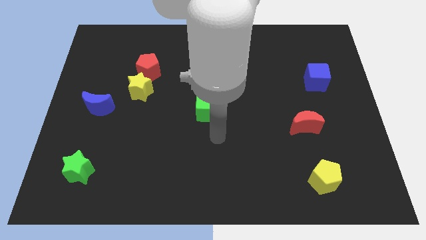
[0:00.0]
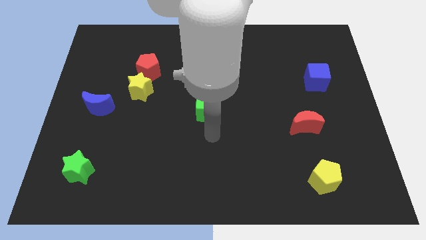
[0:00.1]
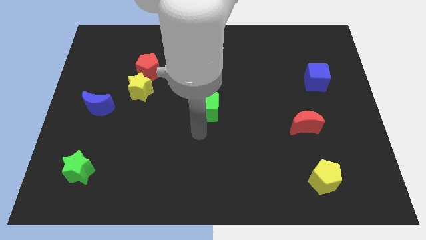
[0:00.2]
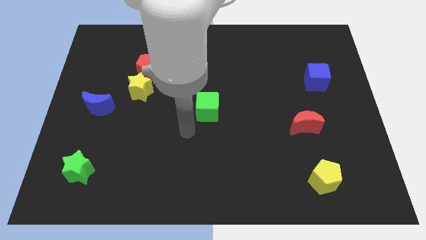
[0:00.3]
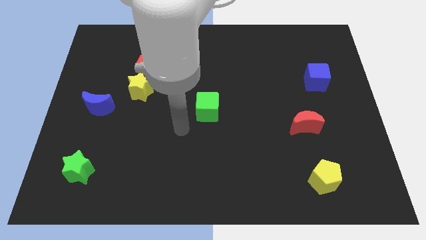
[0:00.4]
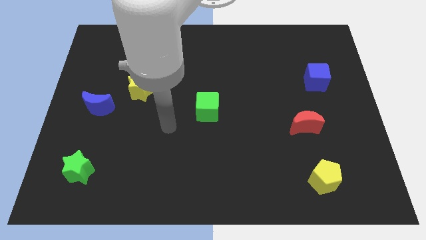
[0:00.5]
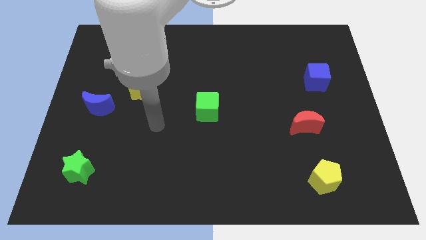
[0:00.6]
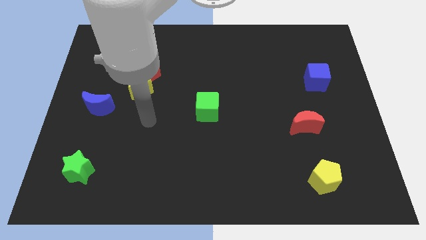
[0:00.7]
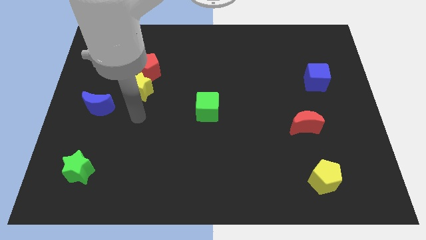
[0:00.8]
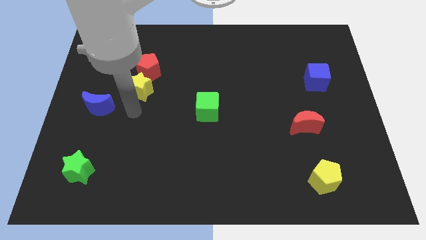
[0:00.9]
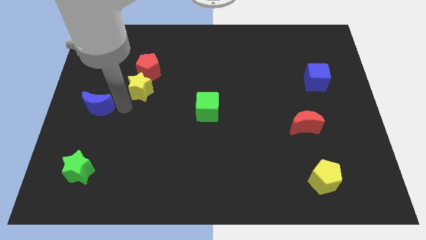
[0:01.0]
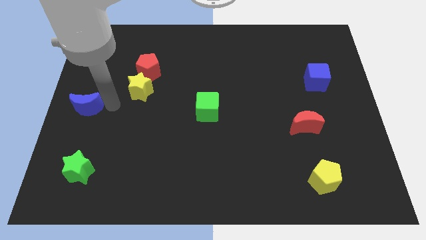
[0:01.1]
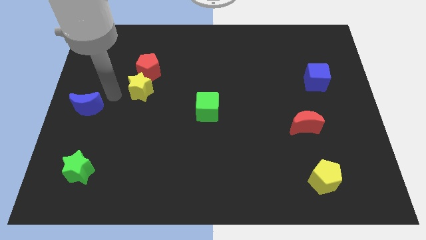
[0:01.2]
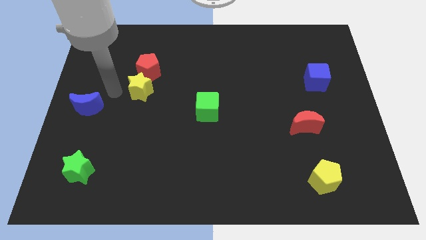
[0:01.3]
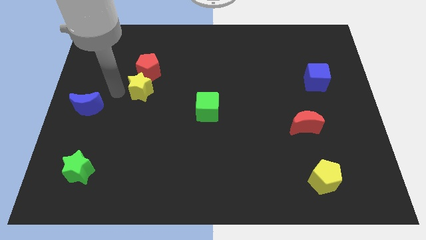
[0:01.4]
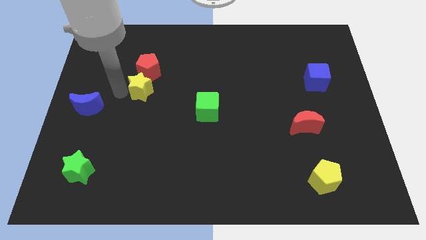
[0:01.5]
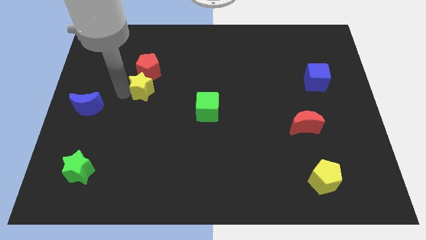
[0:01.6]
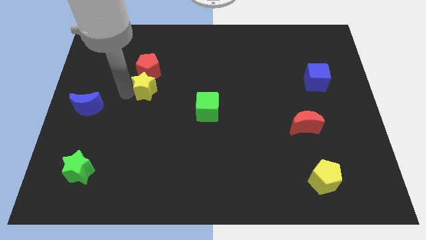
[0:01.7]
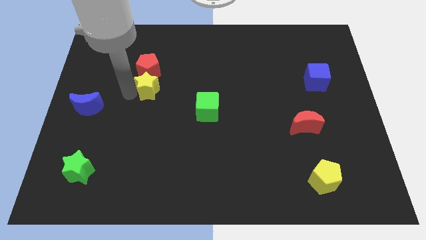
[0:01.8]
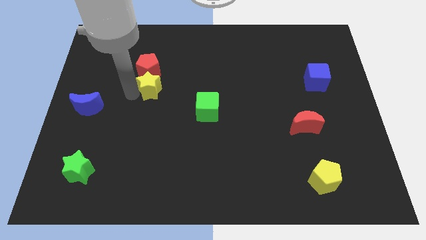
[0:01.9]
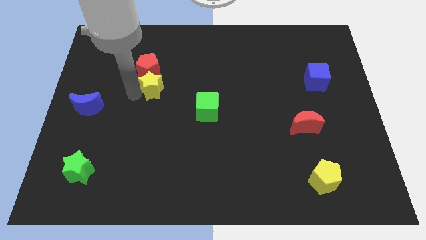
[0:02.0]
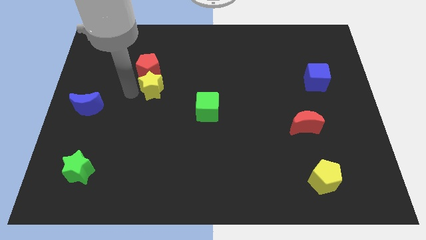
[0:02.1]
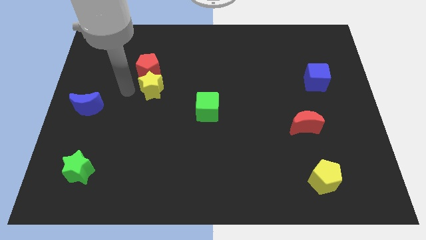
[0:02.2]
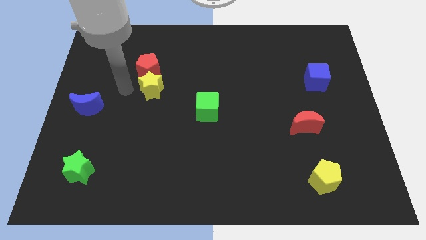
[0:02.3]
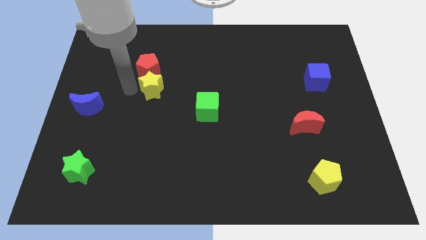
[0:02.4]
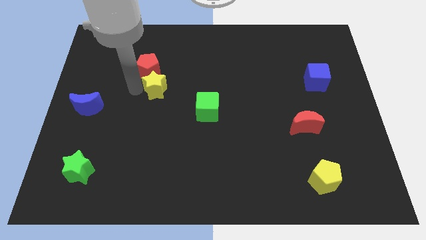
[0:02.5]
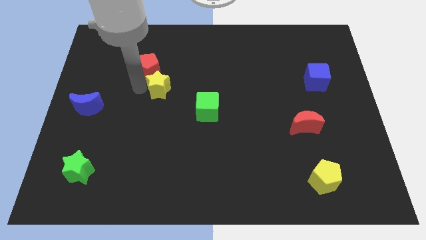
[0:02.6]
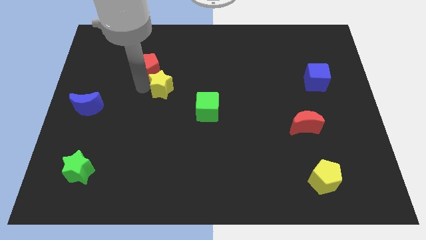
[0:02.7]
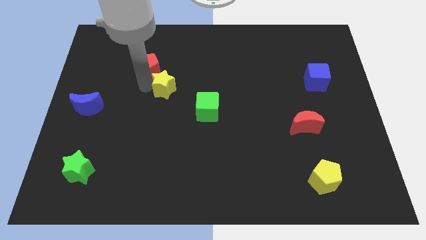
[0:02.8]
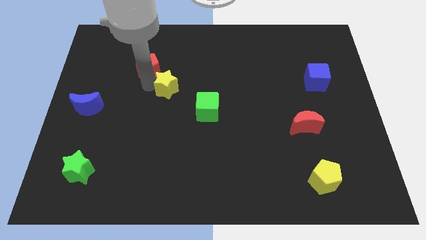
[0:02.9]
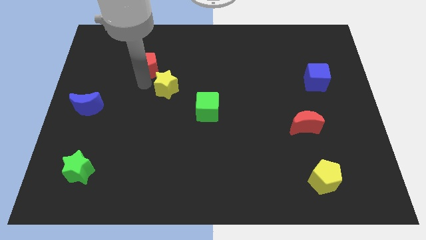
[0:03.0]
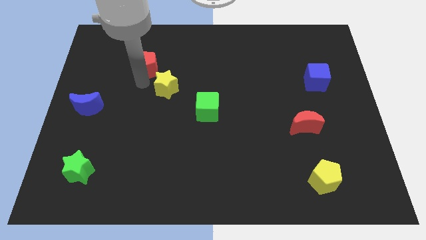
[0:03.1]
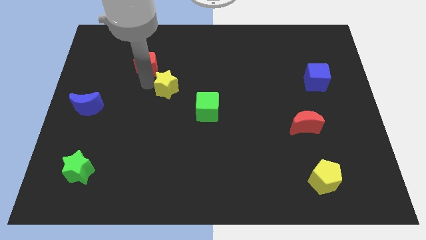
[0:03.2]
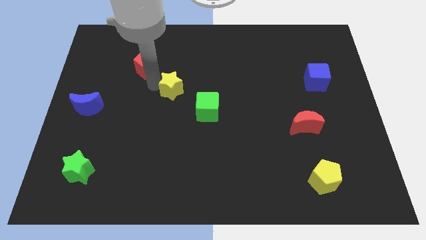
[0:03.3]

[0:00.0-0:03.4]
slide the yellow star to the right somewhat

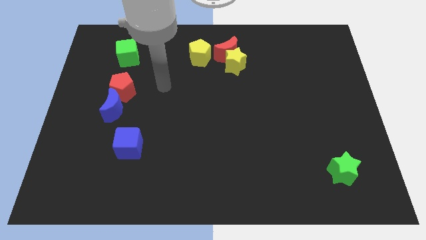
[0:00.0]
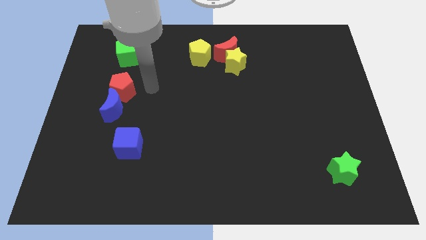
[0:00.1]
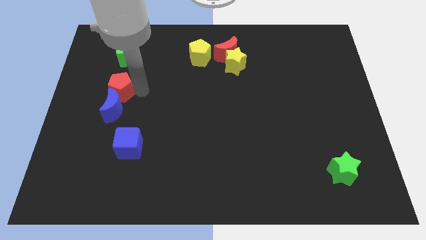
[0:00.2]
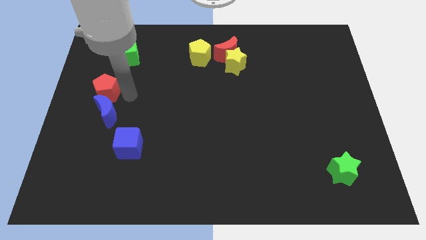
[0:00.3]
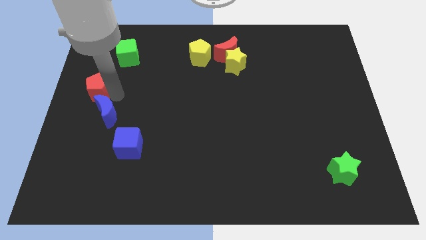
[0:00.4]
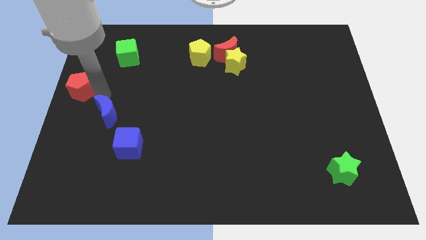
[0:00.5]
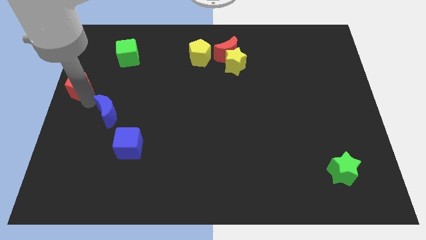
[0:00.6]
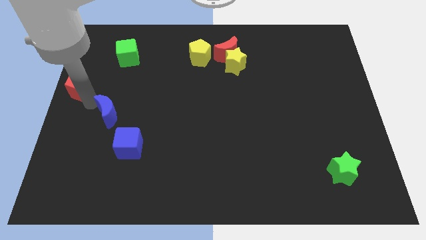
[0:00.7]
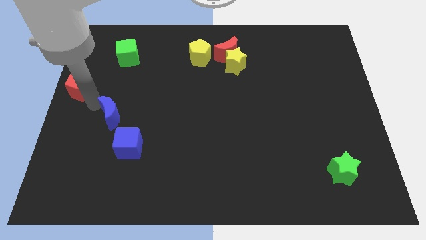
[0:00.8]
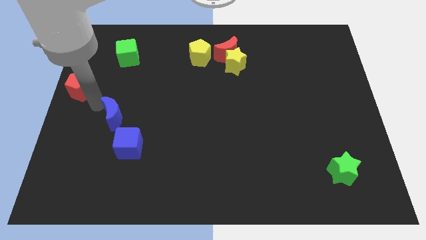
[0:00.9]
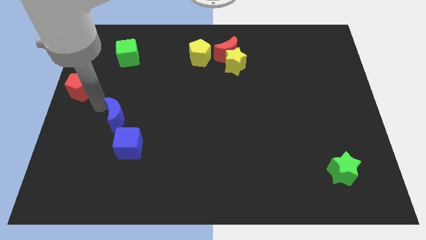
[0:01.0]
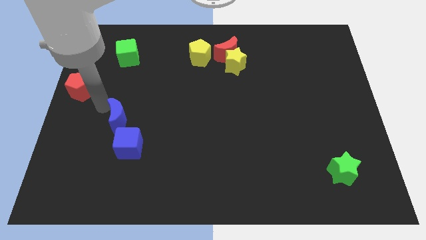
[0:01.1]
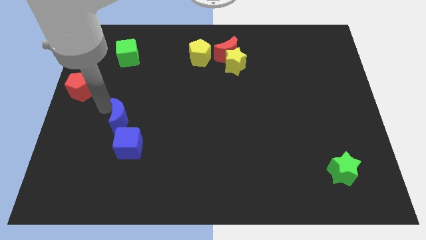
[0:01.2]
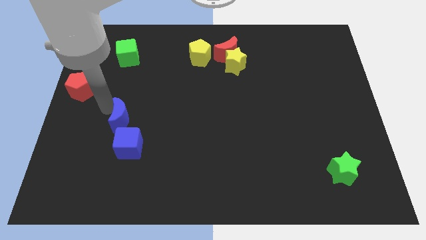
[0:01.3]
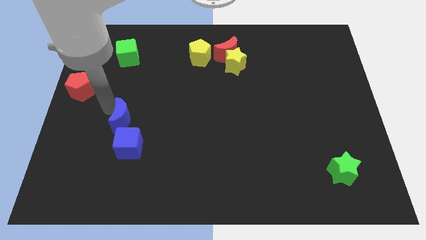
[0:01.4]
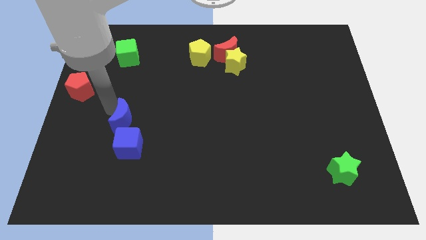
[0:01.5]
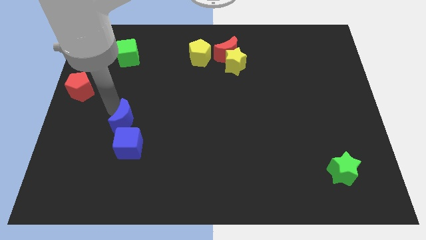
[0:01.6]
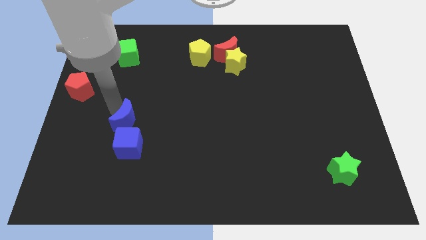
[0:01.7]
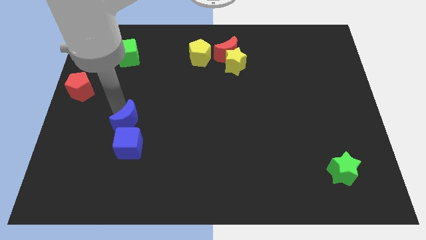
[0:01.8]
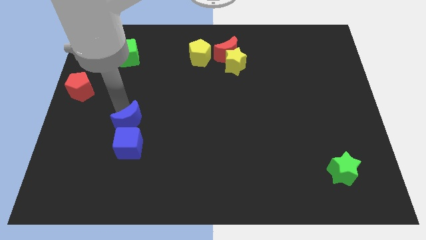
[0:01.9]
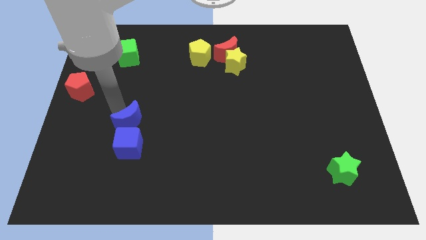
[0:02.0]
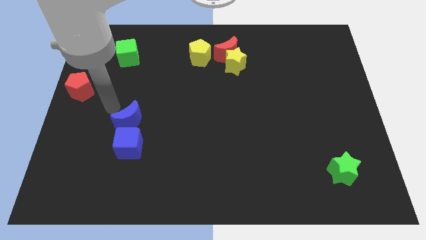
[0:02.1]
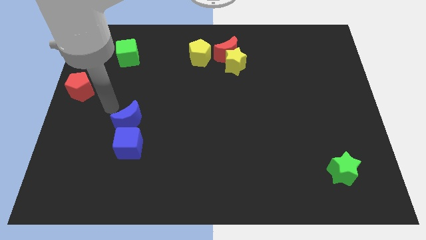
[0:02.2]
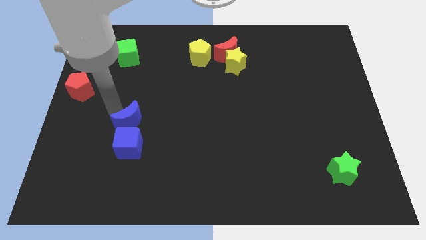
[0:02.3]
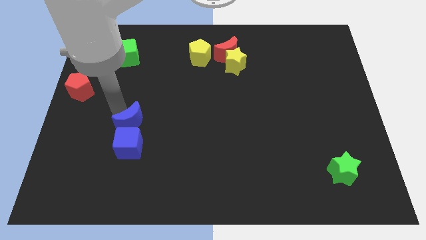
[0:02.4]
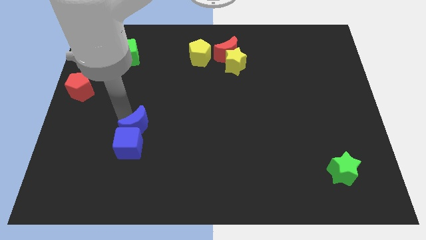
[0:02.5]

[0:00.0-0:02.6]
slide the blue moon a little diagonally downwards and to the right

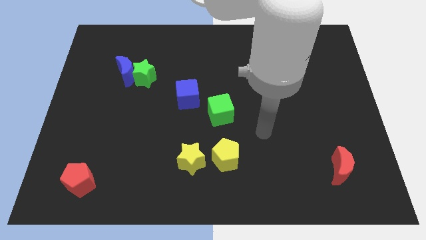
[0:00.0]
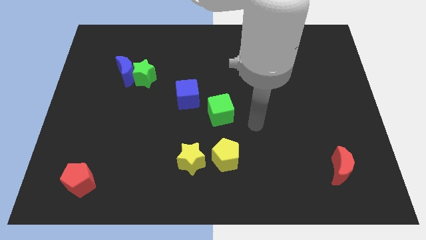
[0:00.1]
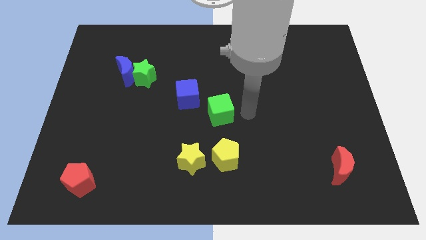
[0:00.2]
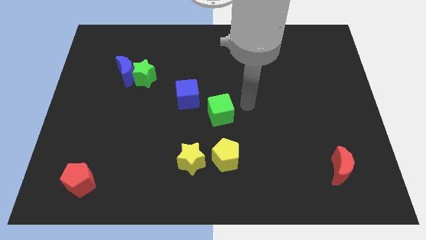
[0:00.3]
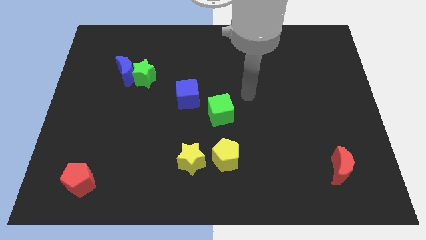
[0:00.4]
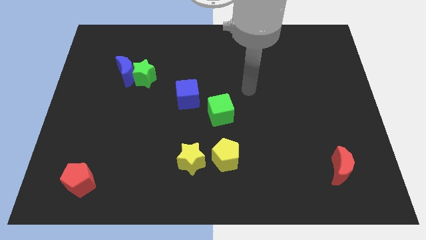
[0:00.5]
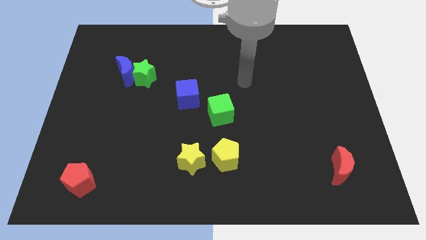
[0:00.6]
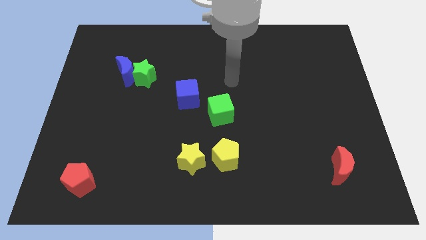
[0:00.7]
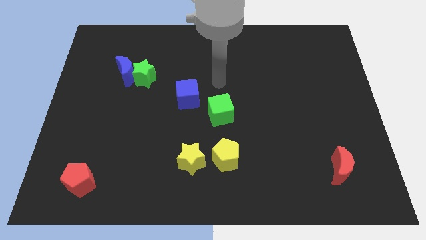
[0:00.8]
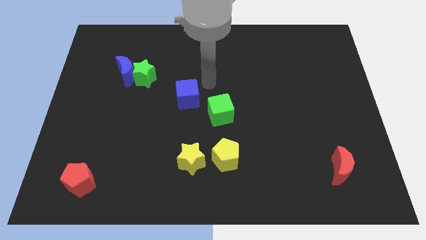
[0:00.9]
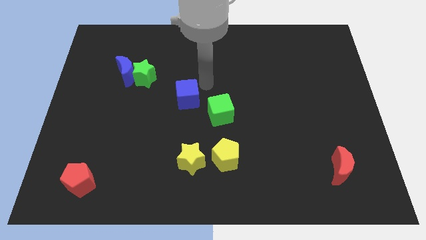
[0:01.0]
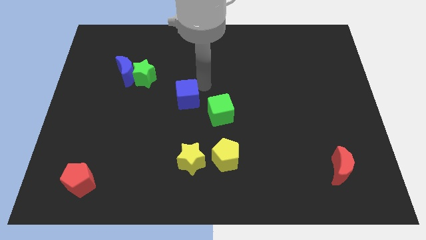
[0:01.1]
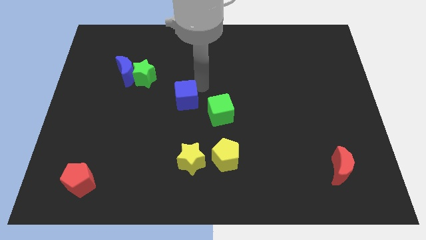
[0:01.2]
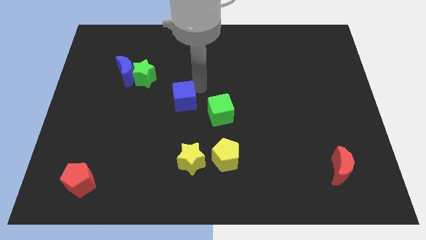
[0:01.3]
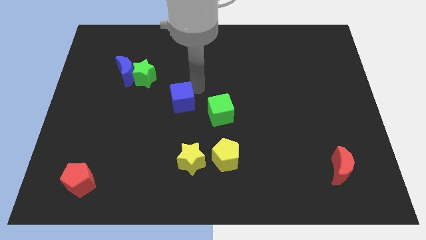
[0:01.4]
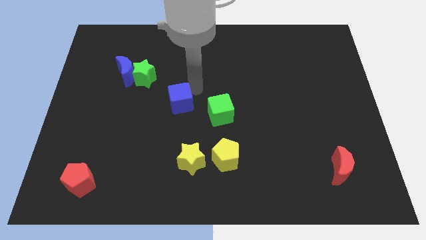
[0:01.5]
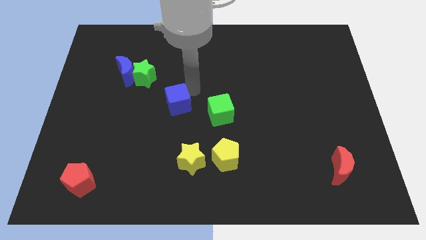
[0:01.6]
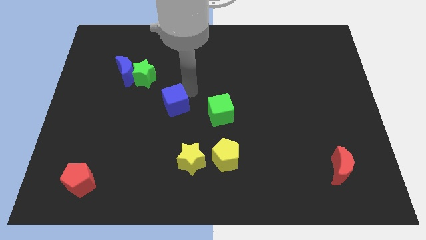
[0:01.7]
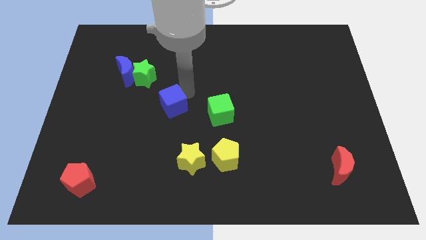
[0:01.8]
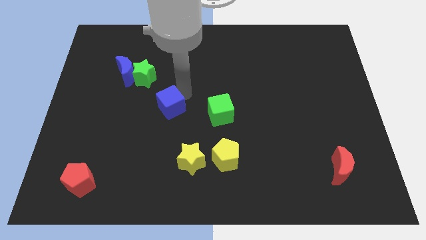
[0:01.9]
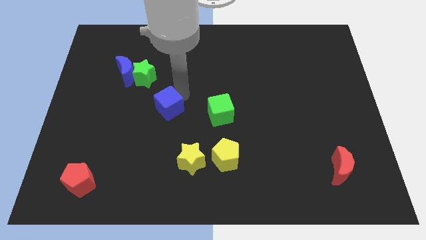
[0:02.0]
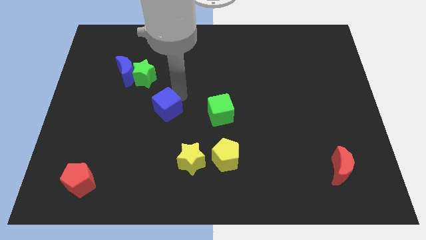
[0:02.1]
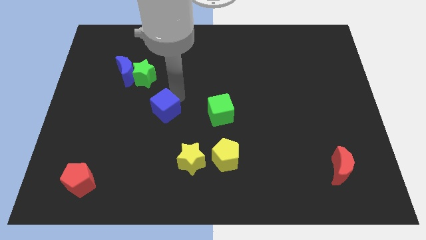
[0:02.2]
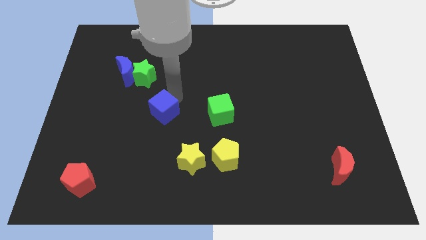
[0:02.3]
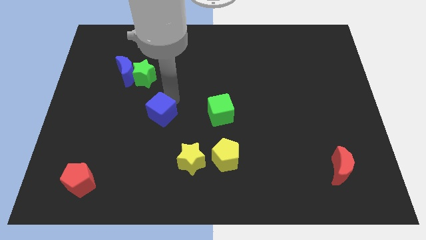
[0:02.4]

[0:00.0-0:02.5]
push the blue cube a little diagonally down and to the left
